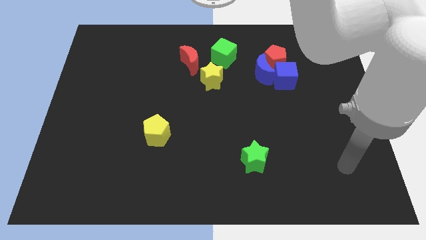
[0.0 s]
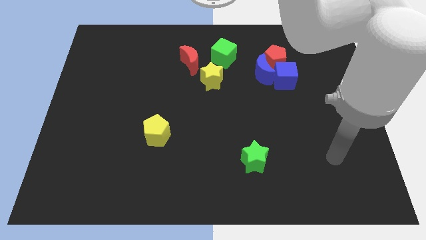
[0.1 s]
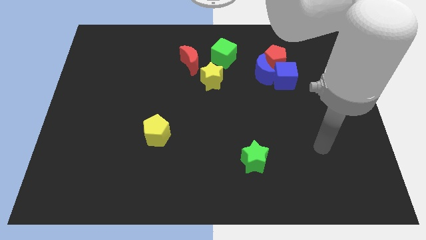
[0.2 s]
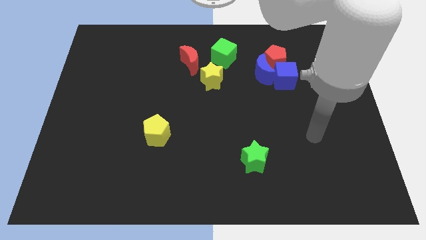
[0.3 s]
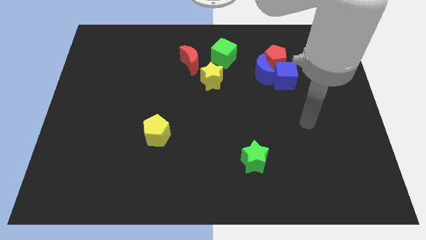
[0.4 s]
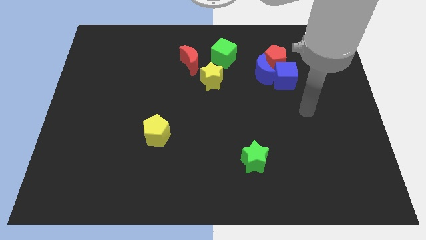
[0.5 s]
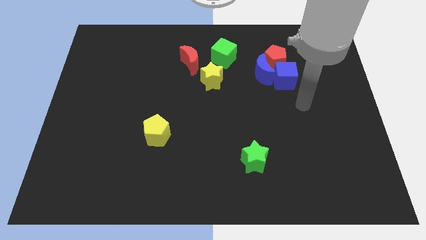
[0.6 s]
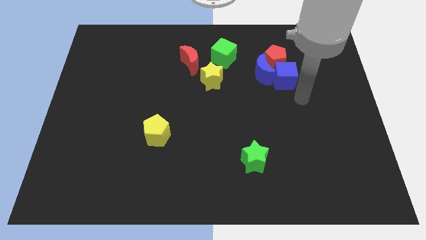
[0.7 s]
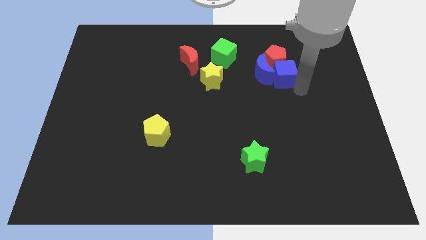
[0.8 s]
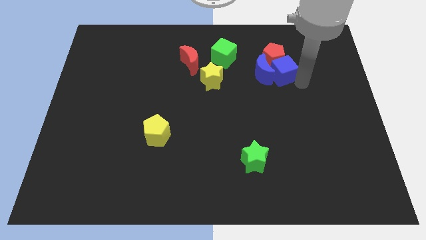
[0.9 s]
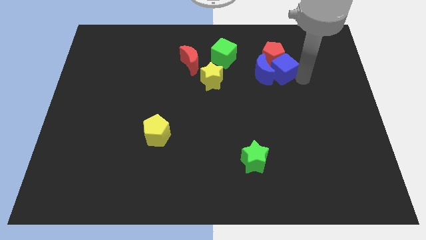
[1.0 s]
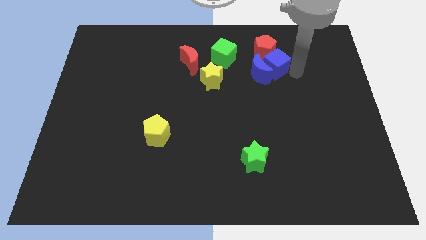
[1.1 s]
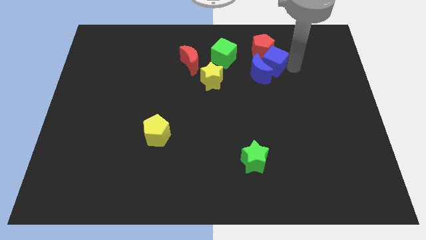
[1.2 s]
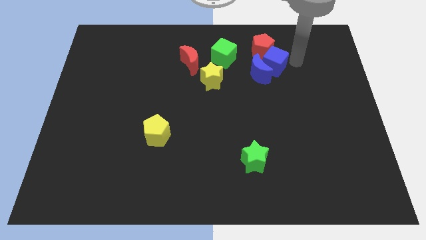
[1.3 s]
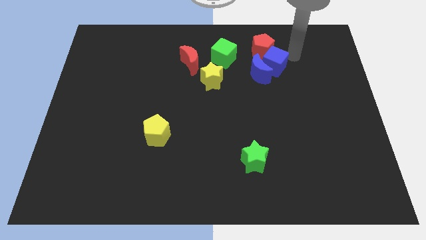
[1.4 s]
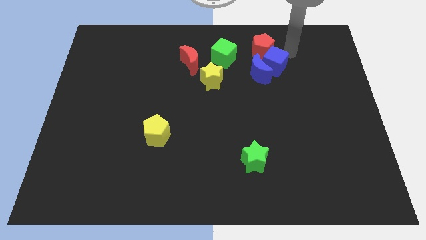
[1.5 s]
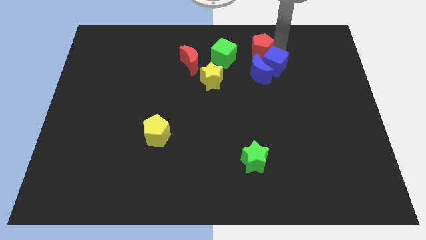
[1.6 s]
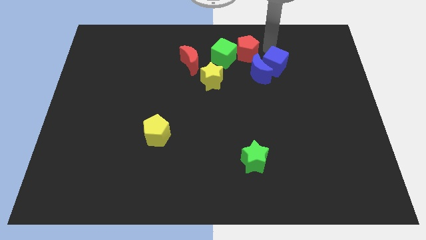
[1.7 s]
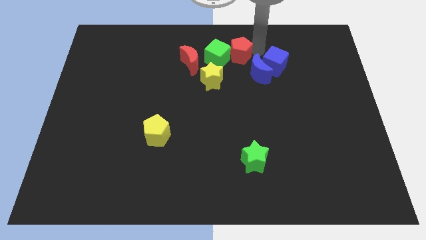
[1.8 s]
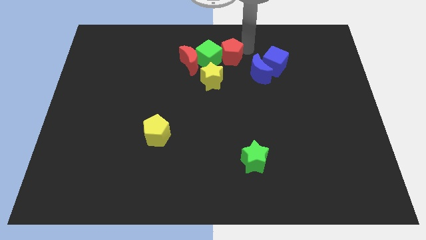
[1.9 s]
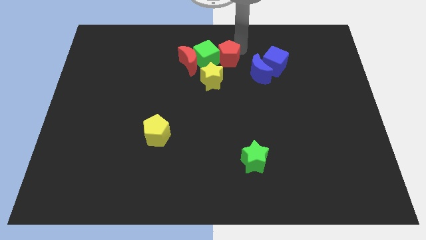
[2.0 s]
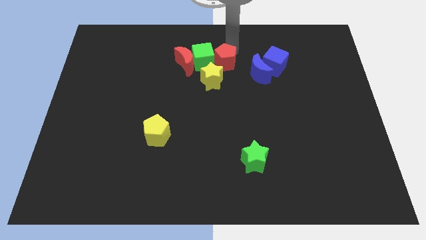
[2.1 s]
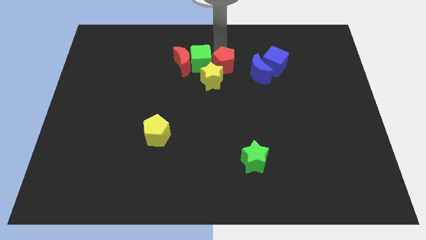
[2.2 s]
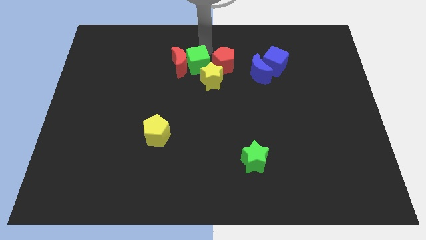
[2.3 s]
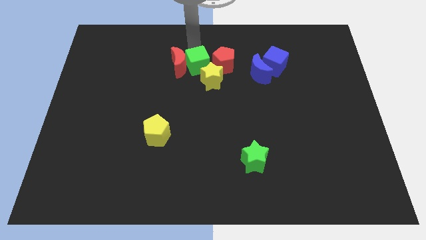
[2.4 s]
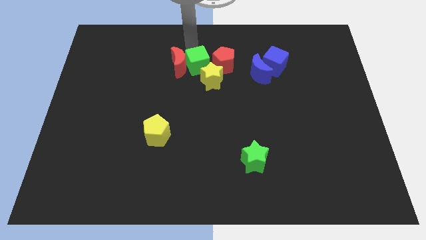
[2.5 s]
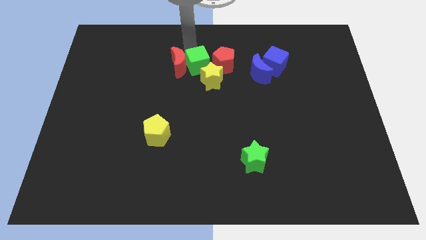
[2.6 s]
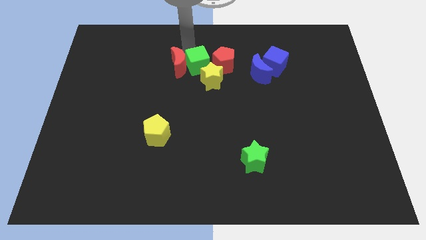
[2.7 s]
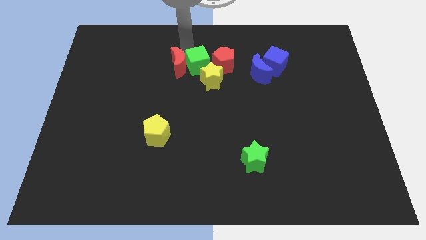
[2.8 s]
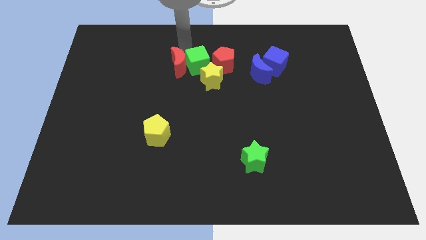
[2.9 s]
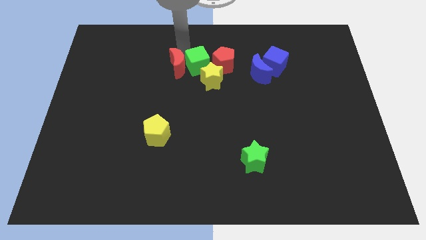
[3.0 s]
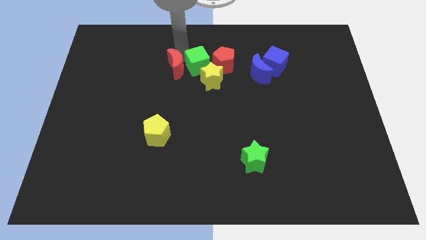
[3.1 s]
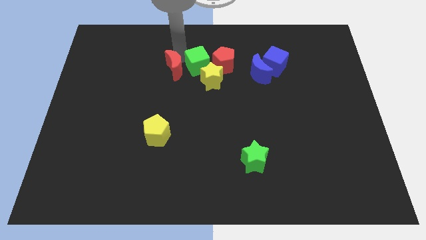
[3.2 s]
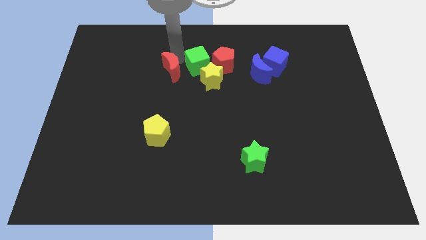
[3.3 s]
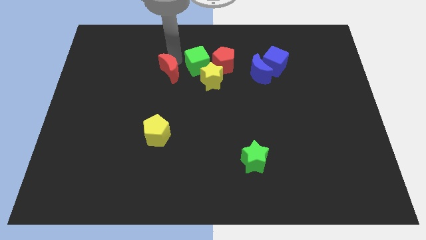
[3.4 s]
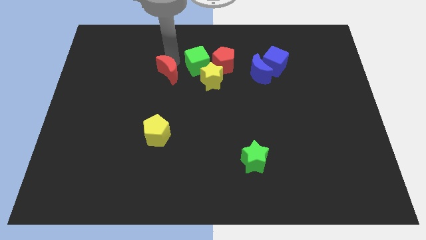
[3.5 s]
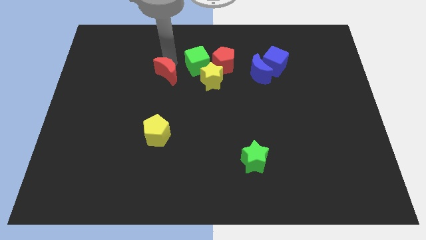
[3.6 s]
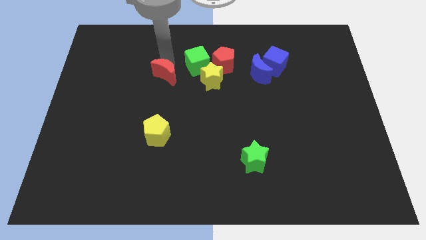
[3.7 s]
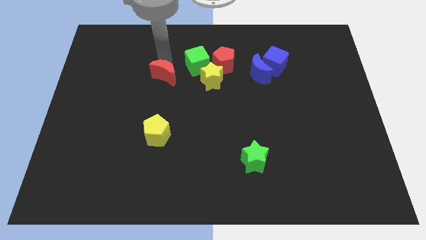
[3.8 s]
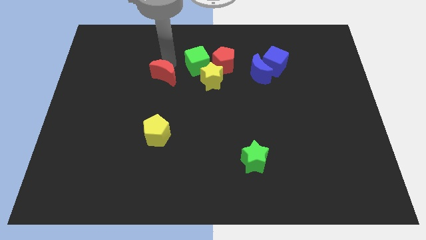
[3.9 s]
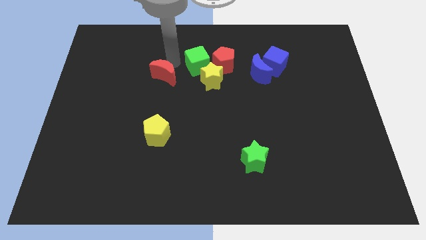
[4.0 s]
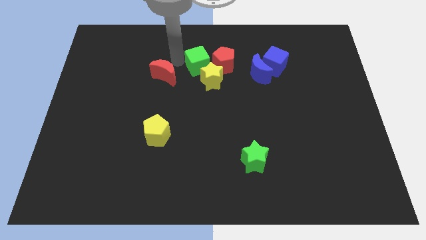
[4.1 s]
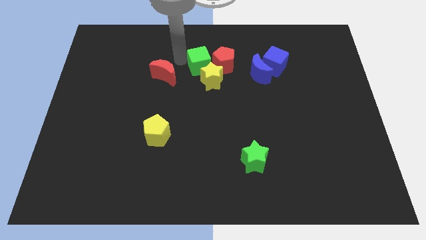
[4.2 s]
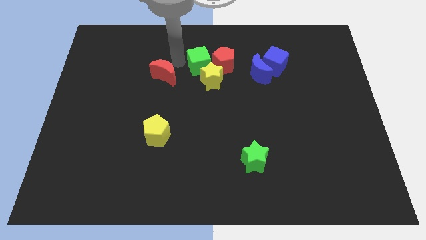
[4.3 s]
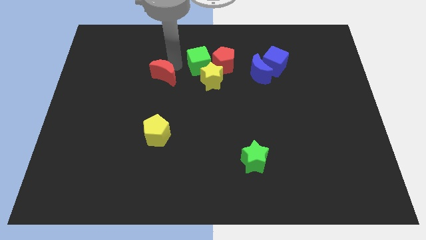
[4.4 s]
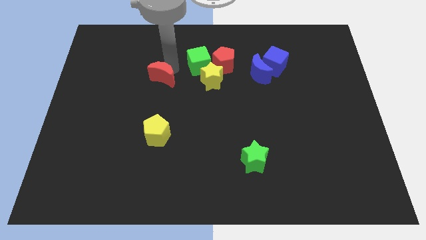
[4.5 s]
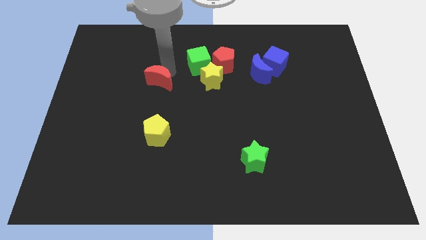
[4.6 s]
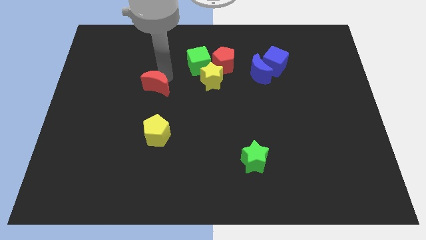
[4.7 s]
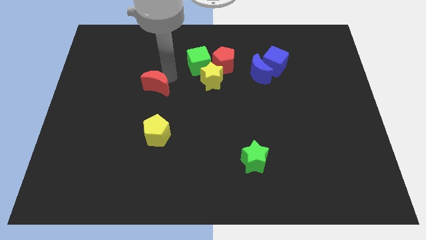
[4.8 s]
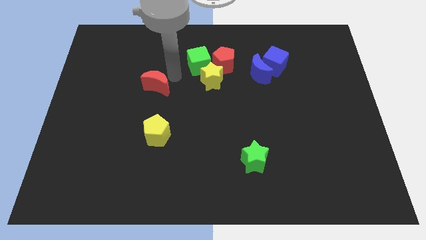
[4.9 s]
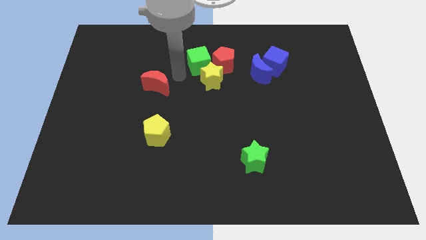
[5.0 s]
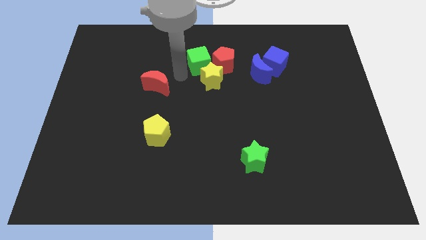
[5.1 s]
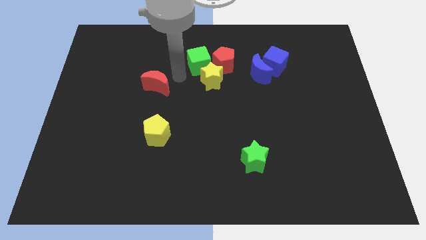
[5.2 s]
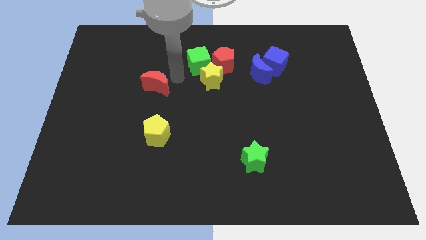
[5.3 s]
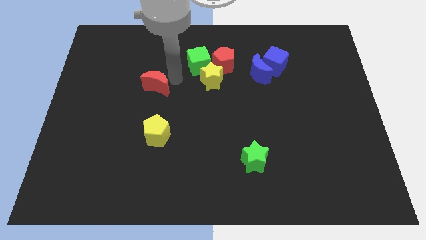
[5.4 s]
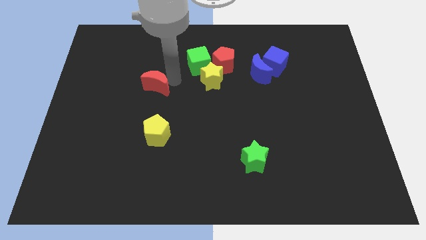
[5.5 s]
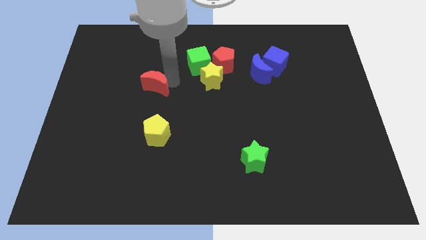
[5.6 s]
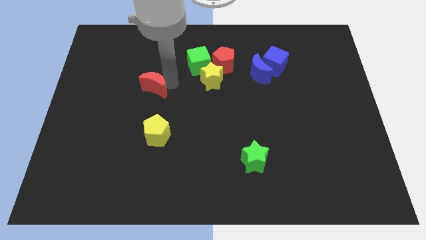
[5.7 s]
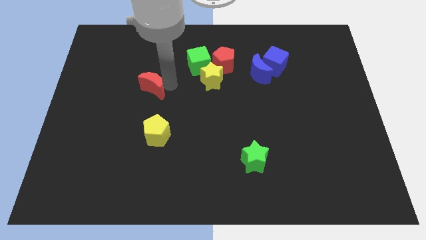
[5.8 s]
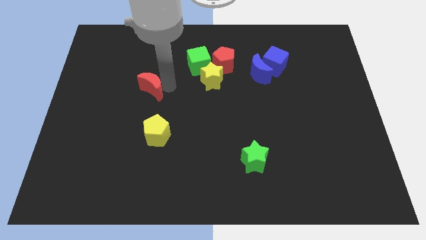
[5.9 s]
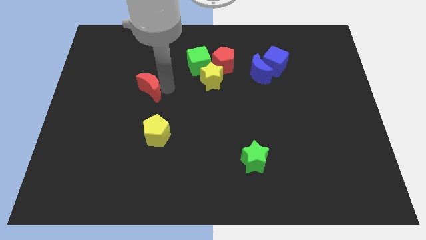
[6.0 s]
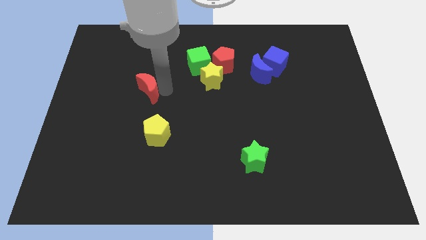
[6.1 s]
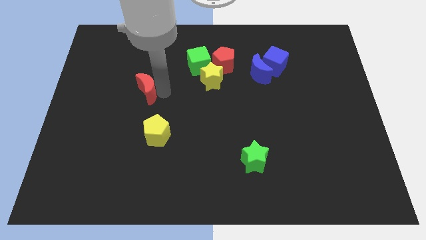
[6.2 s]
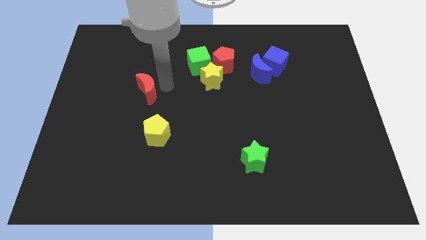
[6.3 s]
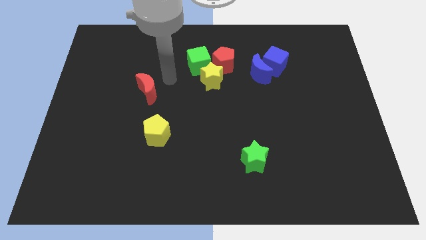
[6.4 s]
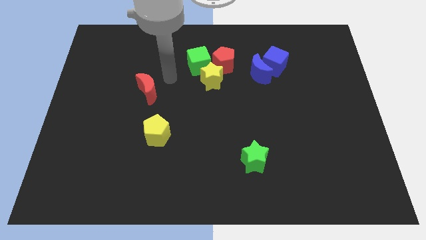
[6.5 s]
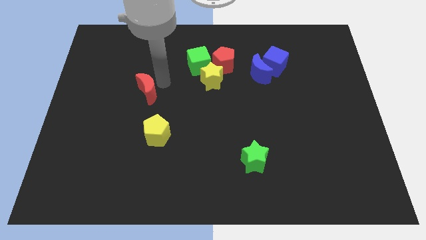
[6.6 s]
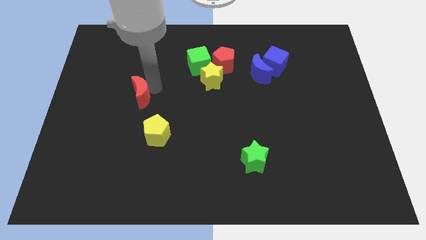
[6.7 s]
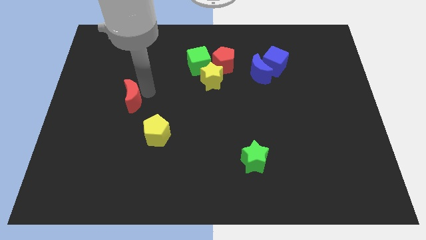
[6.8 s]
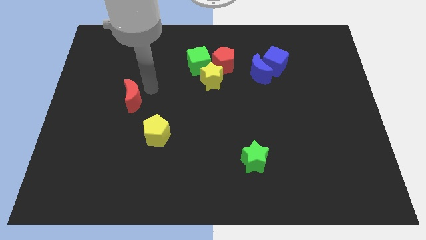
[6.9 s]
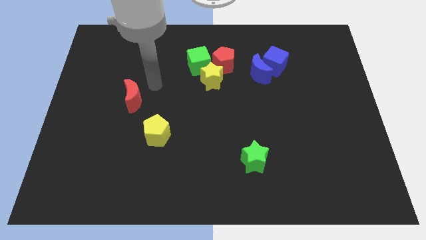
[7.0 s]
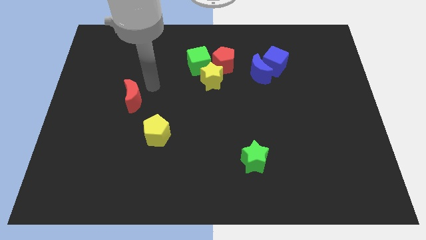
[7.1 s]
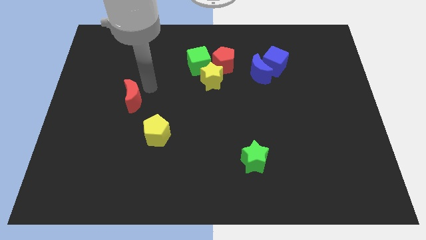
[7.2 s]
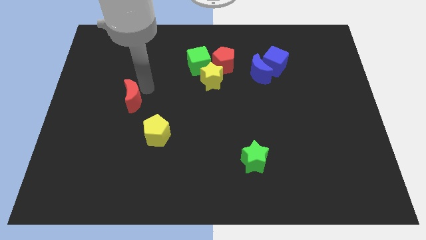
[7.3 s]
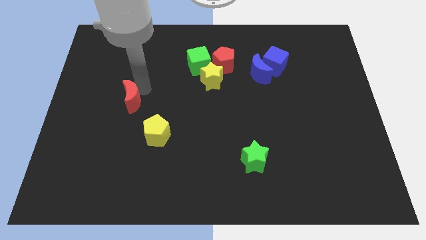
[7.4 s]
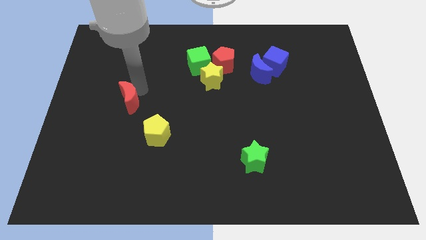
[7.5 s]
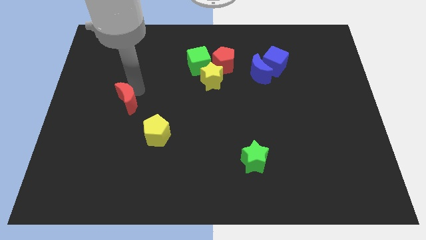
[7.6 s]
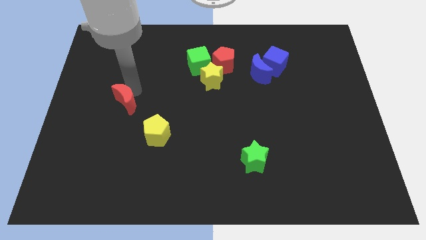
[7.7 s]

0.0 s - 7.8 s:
move the red moon down and left diagonally
